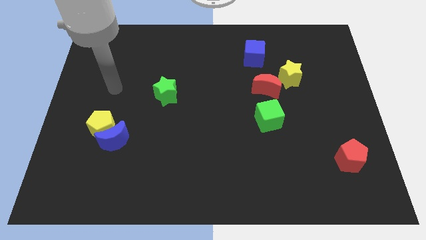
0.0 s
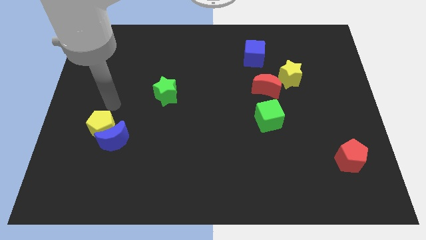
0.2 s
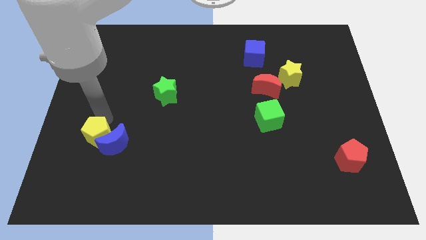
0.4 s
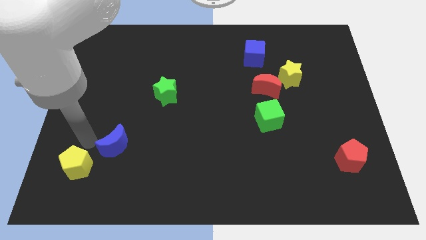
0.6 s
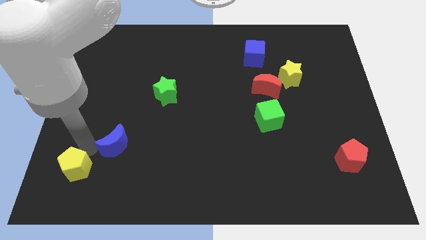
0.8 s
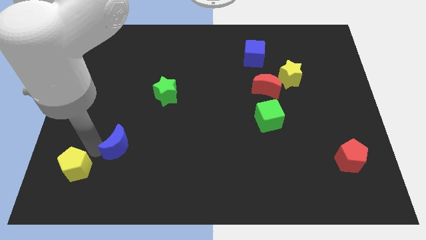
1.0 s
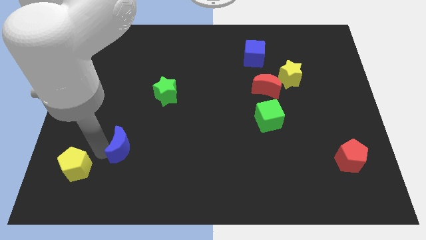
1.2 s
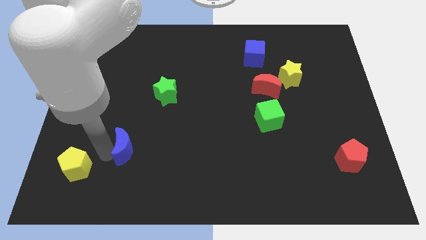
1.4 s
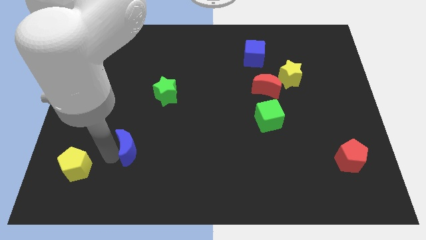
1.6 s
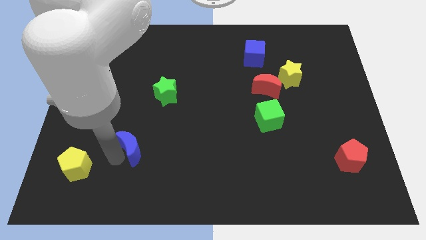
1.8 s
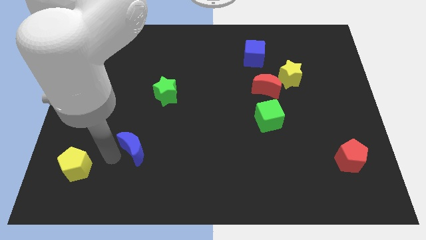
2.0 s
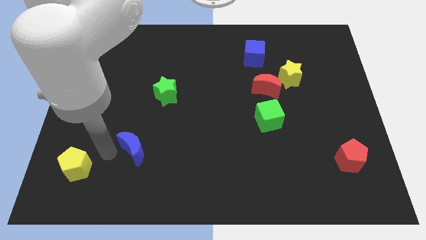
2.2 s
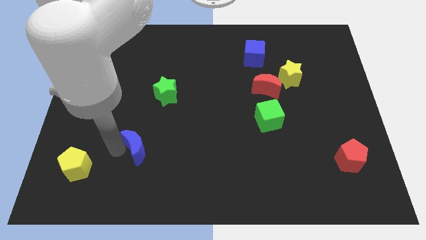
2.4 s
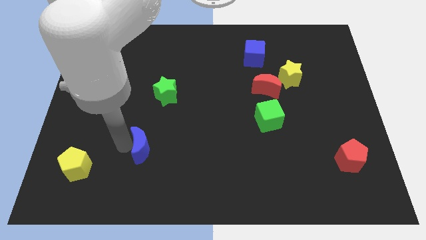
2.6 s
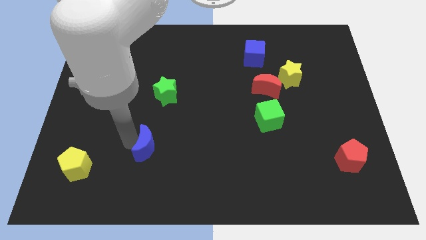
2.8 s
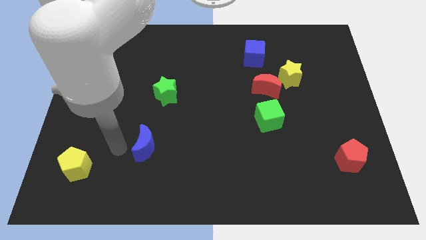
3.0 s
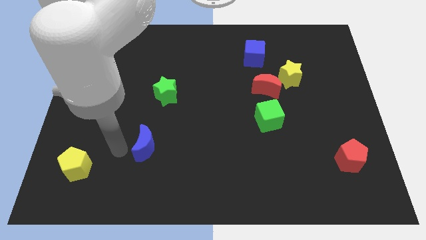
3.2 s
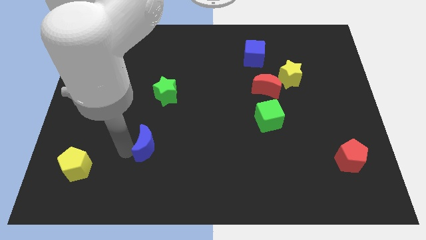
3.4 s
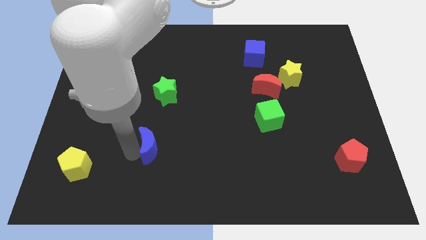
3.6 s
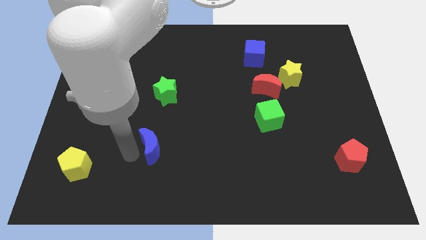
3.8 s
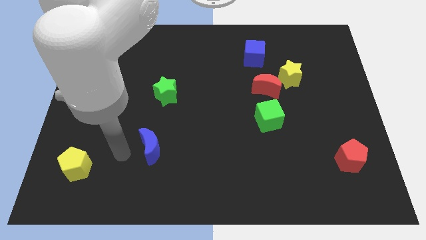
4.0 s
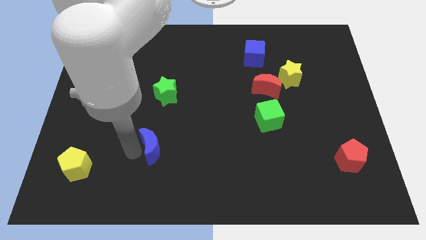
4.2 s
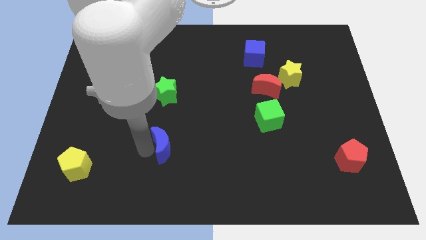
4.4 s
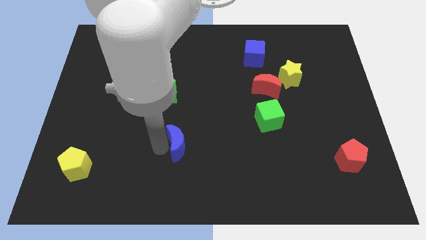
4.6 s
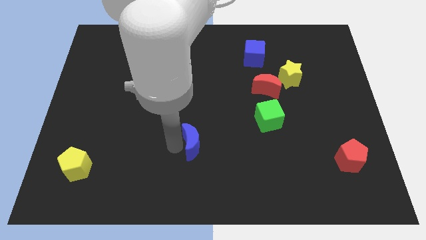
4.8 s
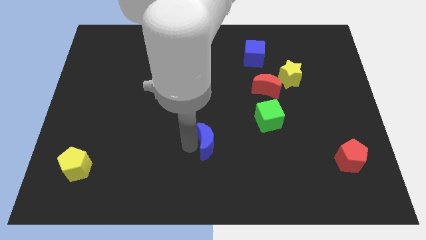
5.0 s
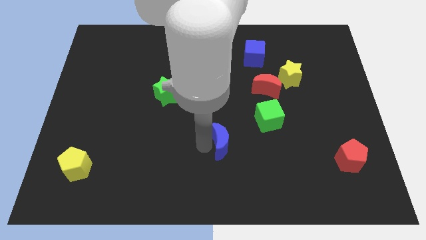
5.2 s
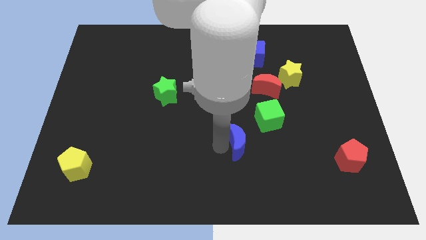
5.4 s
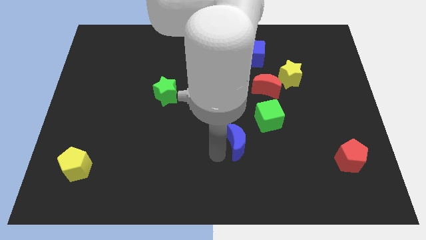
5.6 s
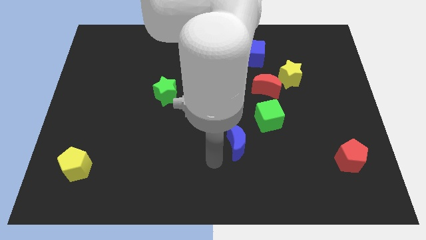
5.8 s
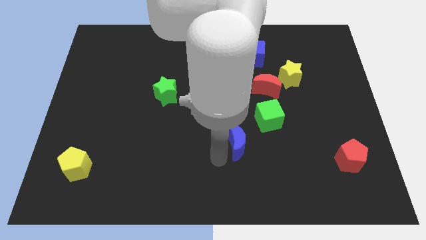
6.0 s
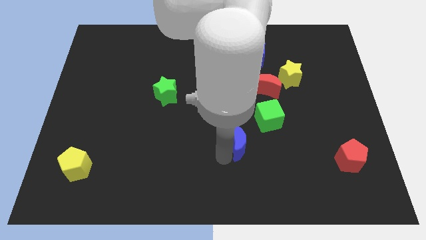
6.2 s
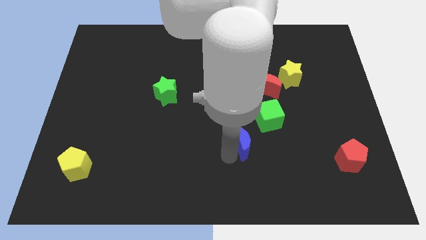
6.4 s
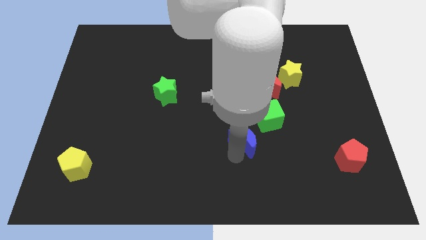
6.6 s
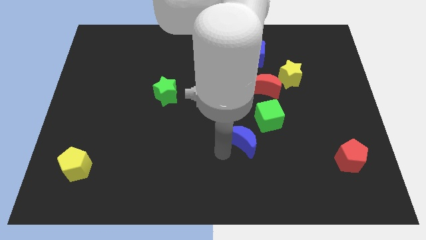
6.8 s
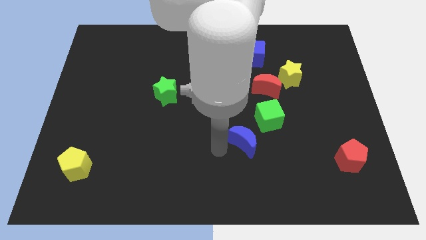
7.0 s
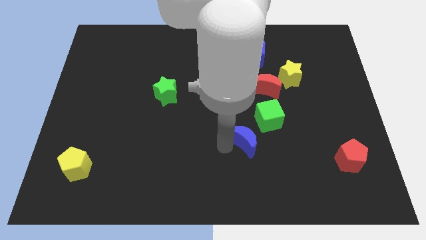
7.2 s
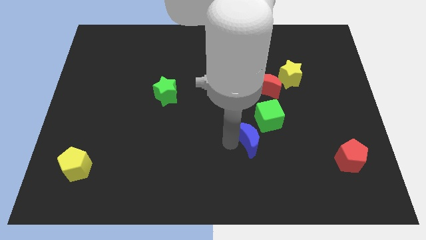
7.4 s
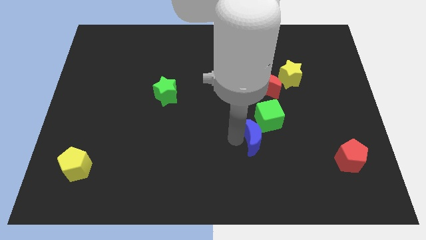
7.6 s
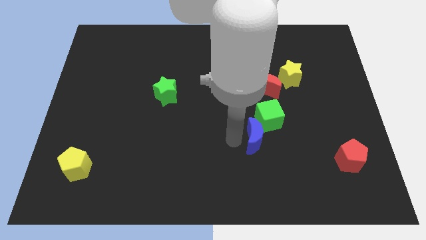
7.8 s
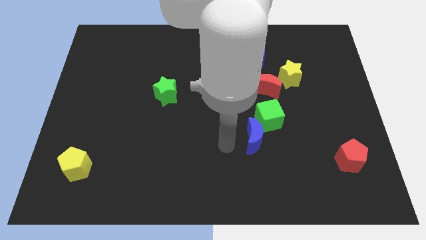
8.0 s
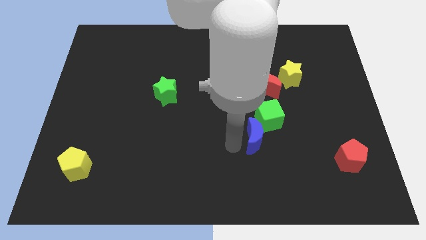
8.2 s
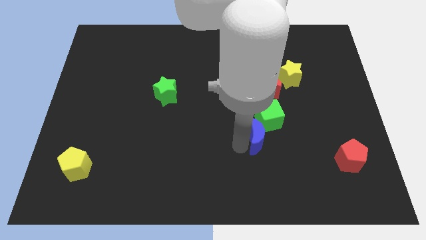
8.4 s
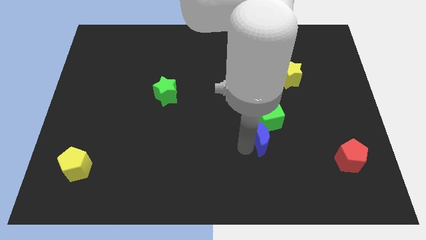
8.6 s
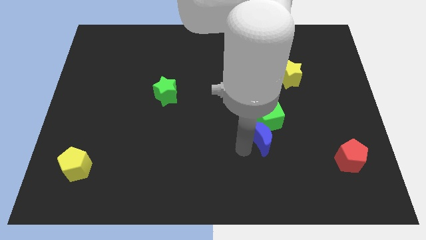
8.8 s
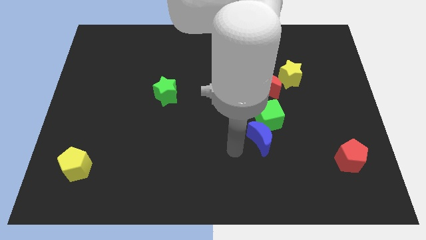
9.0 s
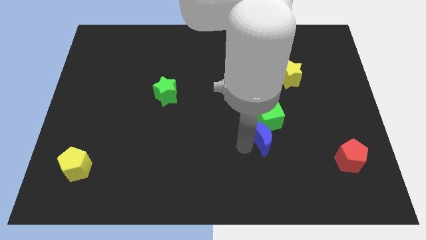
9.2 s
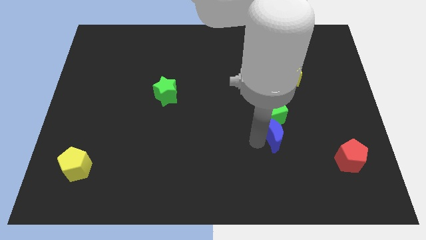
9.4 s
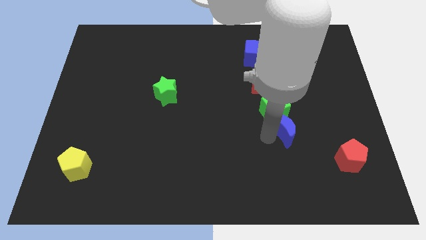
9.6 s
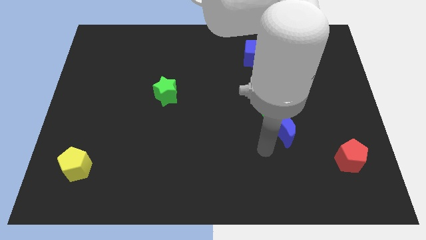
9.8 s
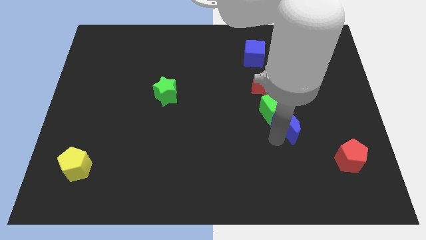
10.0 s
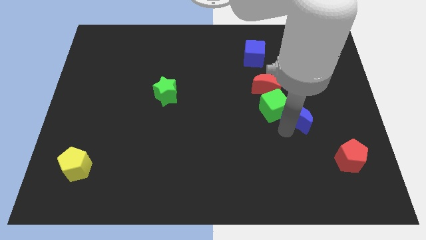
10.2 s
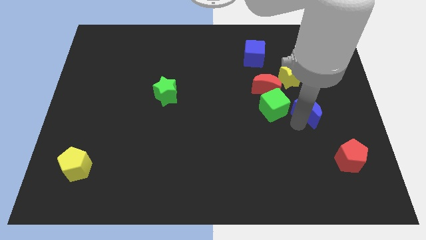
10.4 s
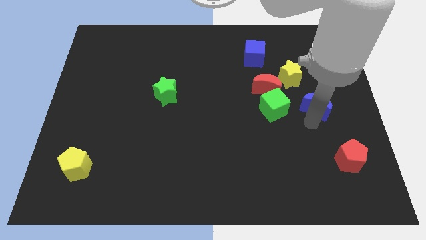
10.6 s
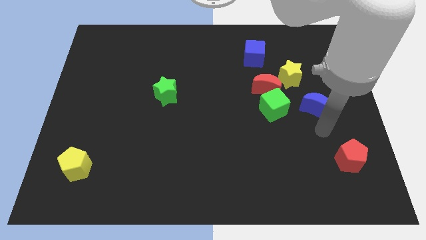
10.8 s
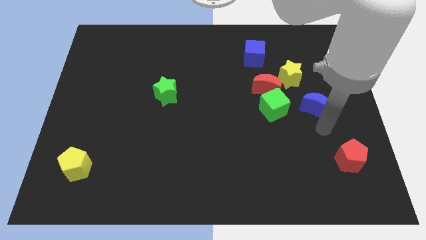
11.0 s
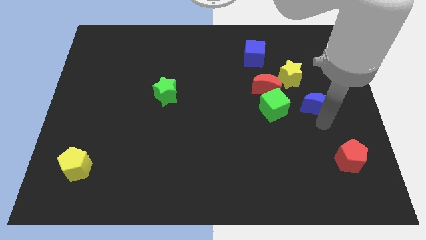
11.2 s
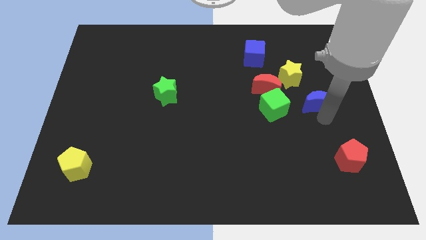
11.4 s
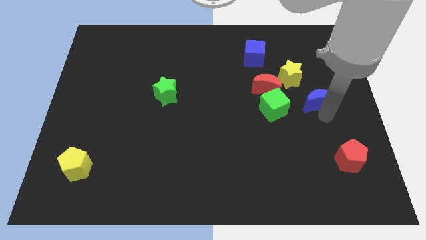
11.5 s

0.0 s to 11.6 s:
slide the blue moon right of the red moon

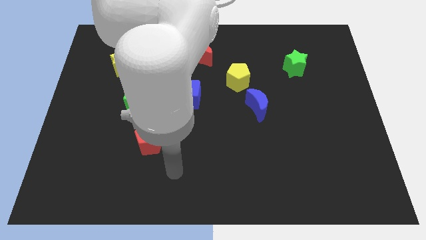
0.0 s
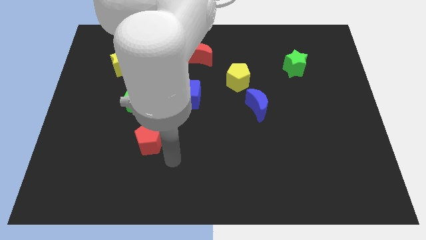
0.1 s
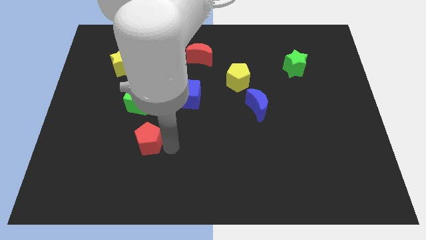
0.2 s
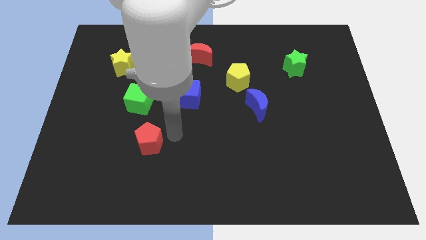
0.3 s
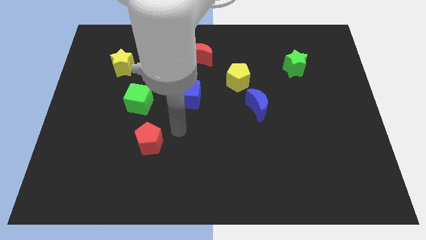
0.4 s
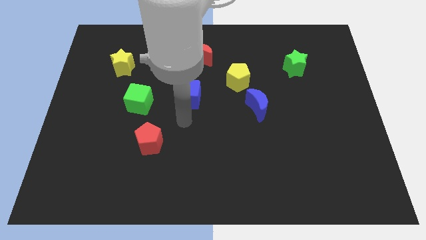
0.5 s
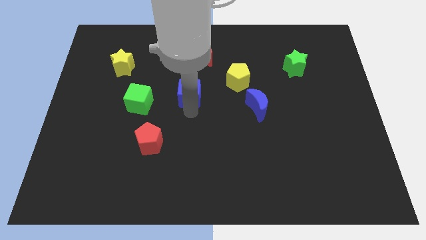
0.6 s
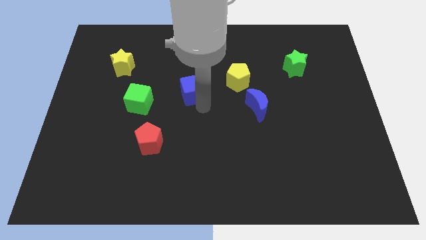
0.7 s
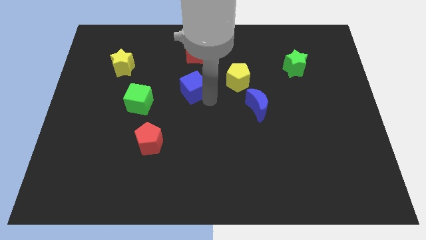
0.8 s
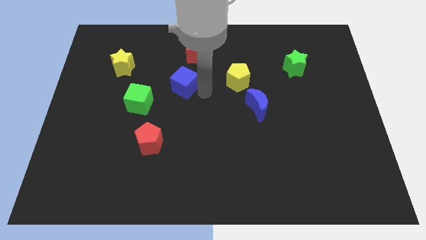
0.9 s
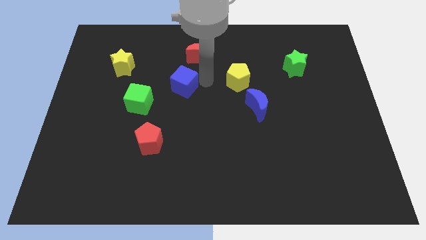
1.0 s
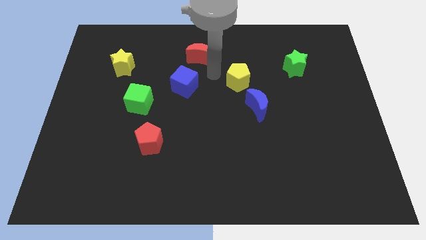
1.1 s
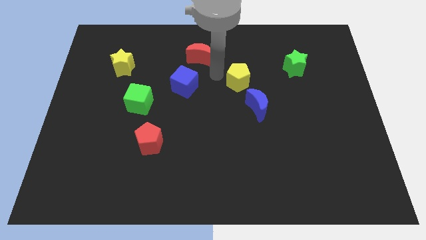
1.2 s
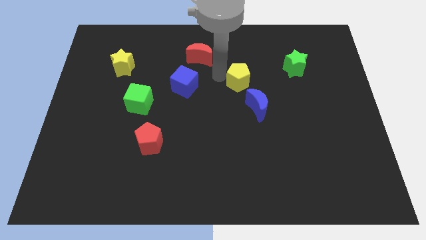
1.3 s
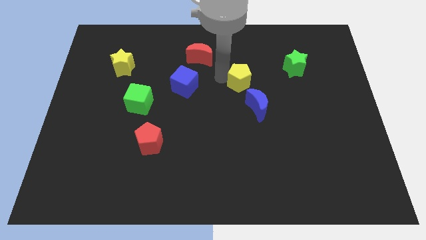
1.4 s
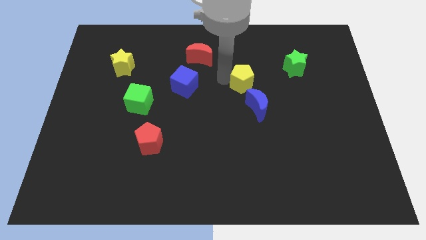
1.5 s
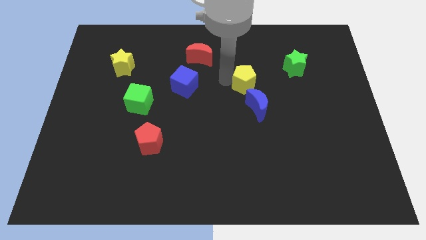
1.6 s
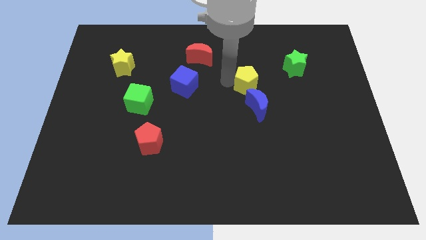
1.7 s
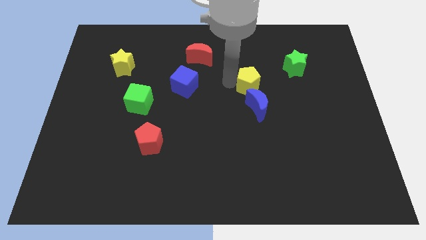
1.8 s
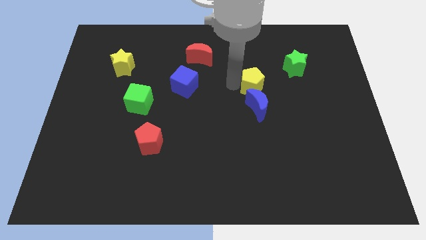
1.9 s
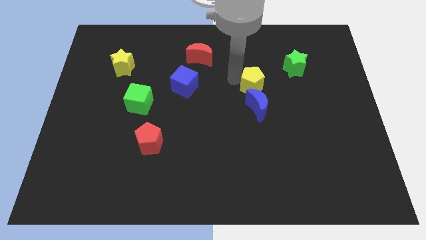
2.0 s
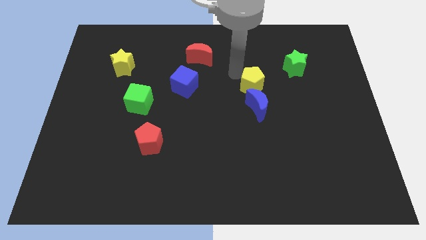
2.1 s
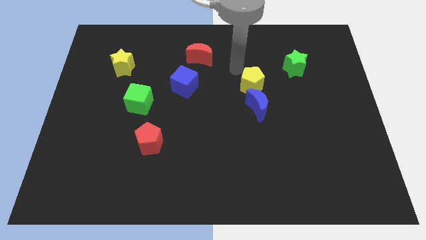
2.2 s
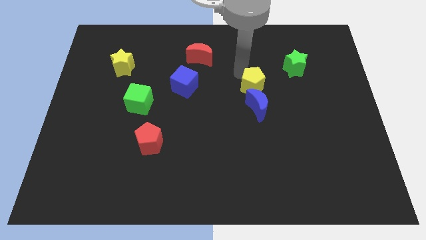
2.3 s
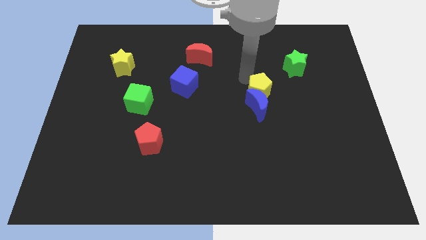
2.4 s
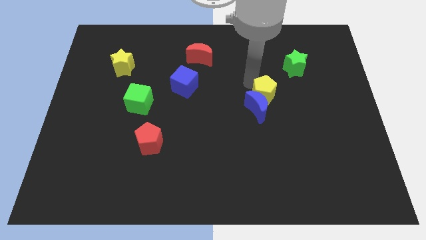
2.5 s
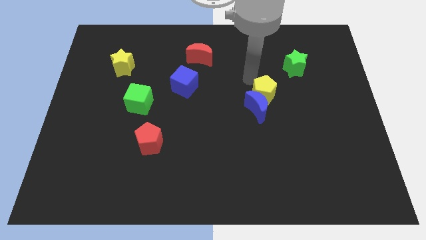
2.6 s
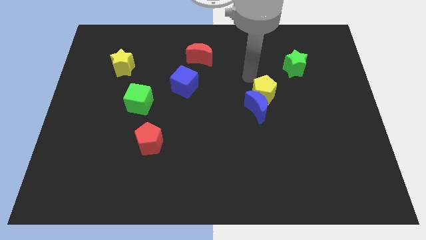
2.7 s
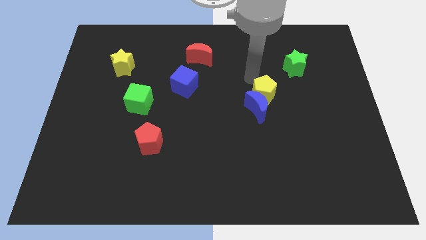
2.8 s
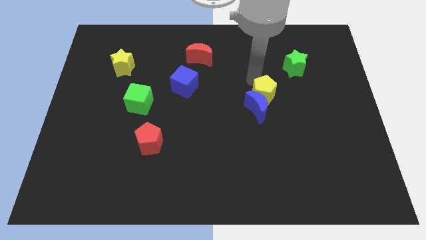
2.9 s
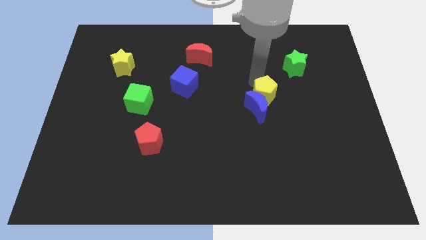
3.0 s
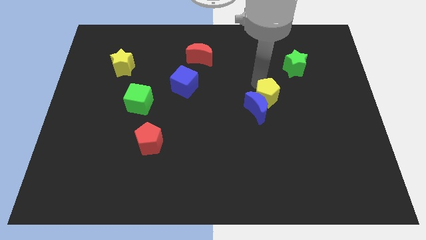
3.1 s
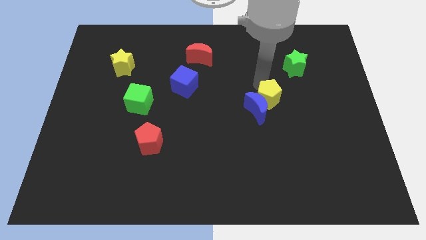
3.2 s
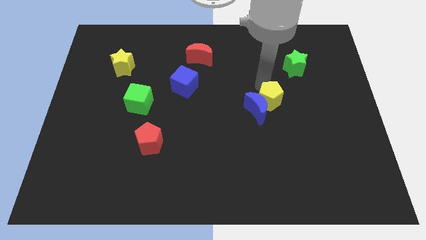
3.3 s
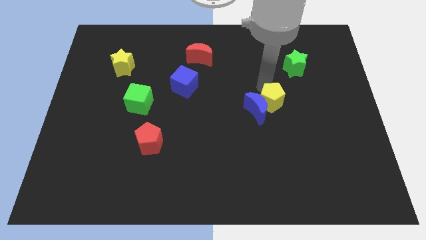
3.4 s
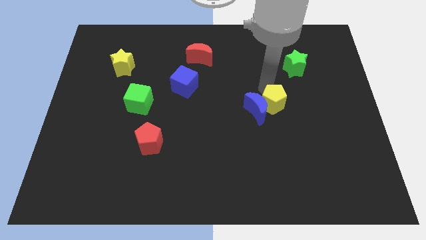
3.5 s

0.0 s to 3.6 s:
slide the yellow pentagon to the bottom right side of the blue moon
